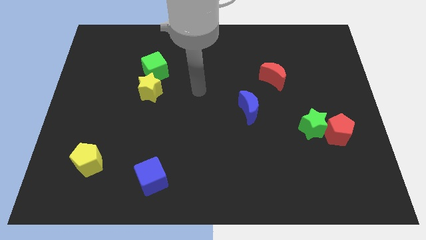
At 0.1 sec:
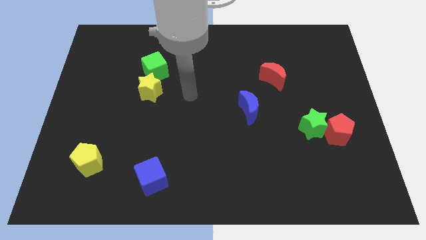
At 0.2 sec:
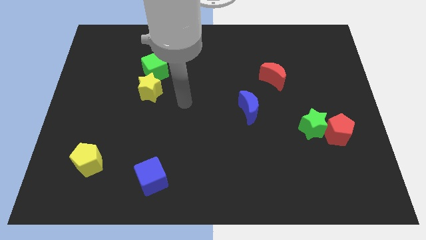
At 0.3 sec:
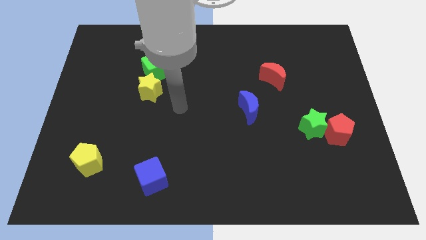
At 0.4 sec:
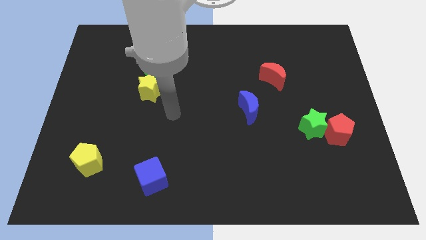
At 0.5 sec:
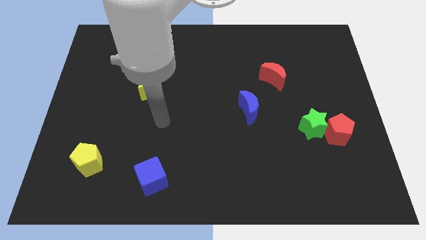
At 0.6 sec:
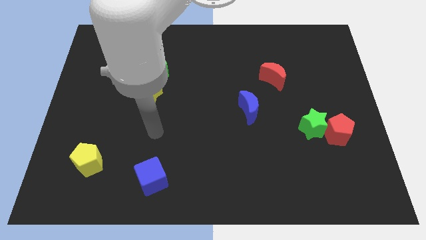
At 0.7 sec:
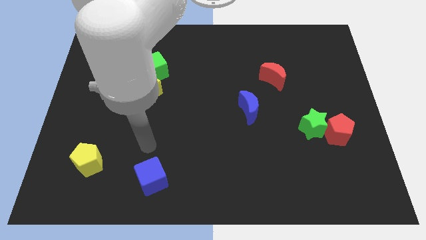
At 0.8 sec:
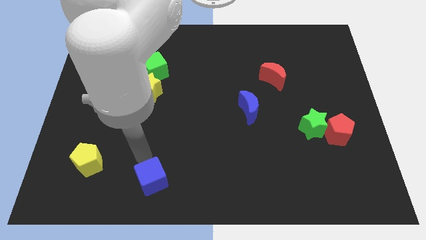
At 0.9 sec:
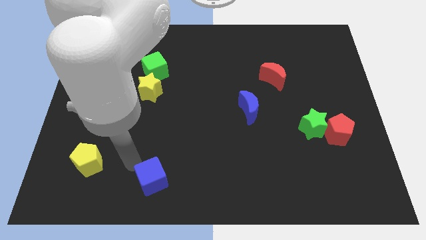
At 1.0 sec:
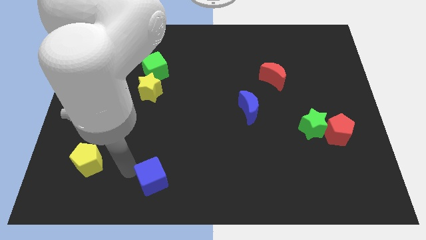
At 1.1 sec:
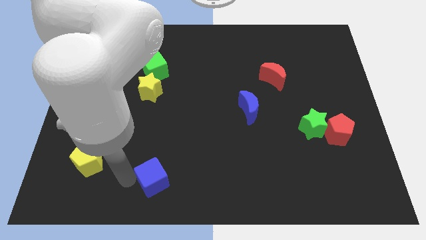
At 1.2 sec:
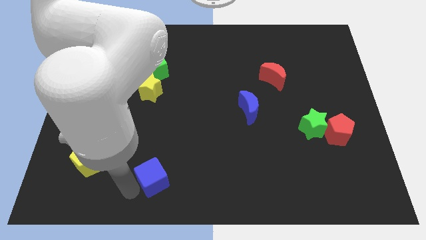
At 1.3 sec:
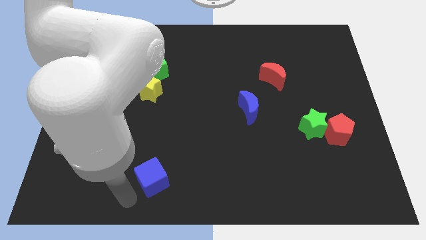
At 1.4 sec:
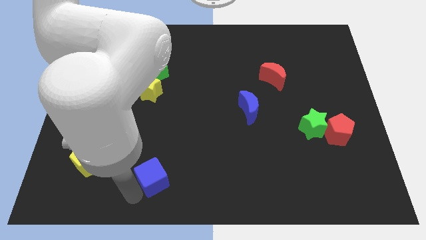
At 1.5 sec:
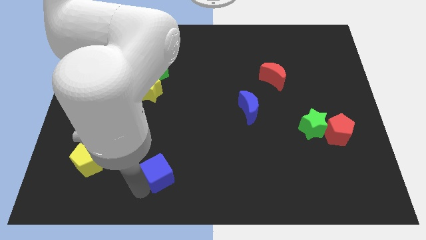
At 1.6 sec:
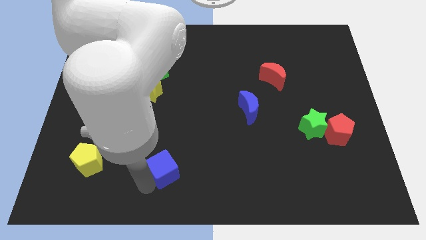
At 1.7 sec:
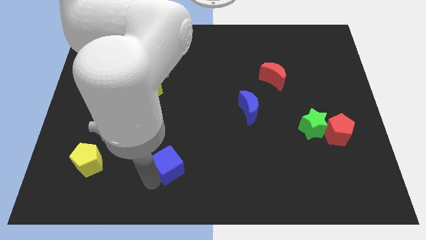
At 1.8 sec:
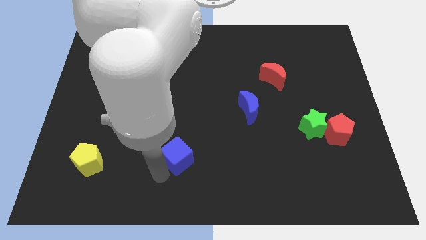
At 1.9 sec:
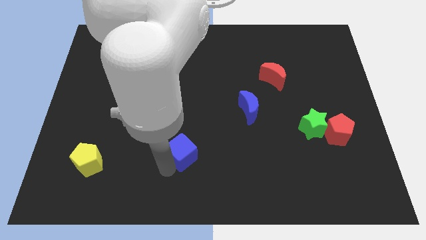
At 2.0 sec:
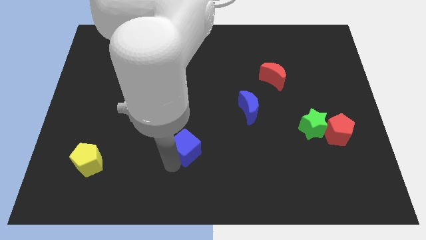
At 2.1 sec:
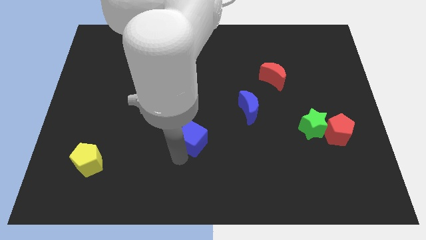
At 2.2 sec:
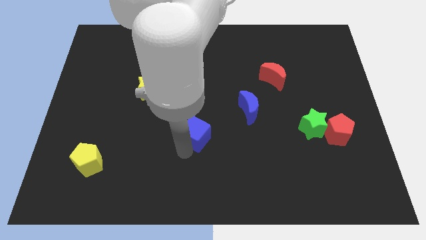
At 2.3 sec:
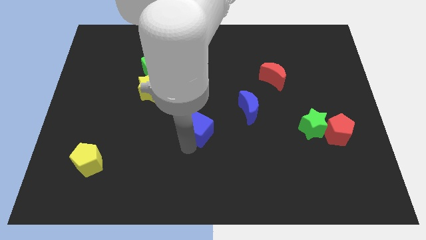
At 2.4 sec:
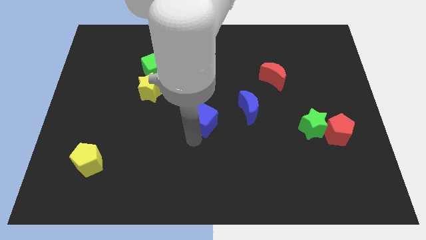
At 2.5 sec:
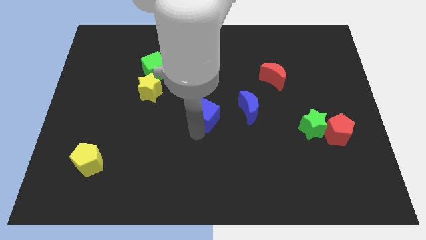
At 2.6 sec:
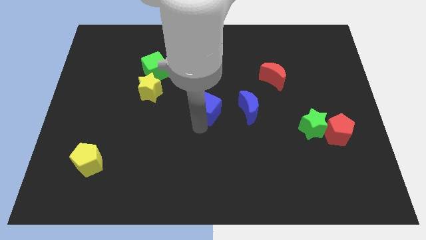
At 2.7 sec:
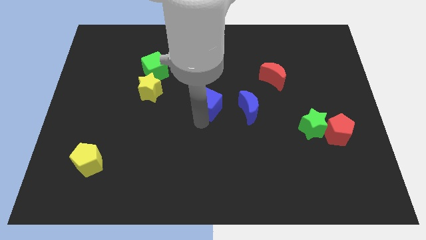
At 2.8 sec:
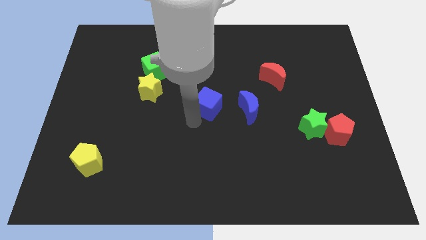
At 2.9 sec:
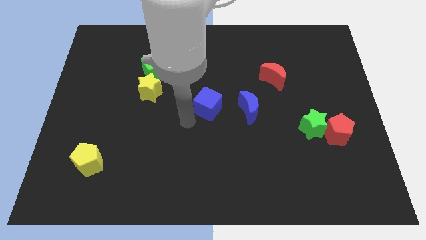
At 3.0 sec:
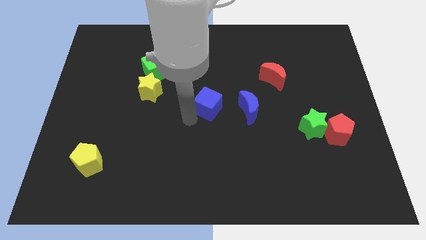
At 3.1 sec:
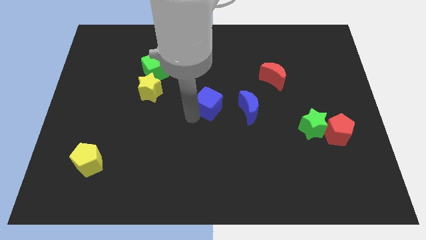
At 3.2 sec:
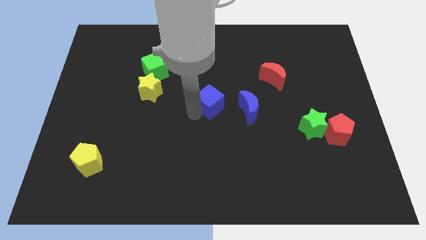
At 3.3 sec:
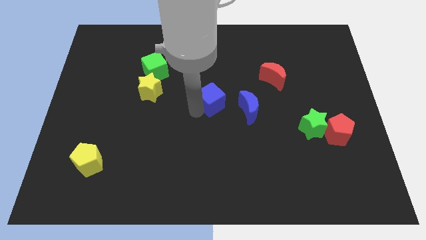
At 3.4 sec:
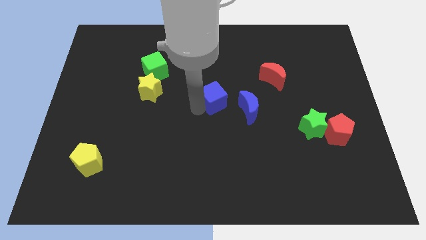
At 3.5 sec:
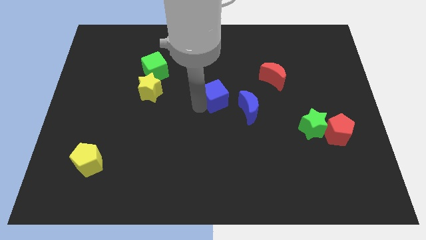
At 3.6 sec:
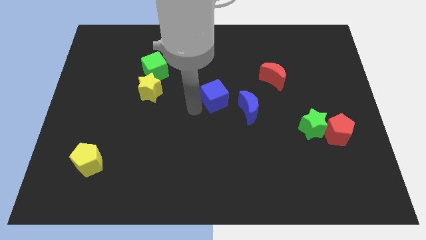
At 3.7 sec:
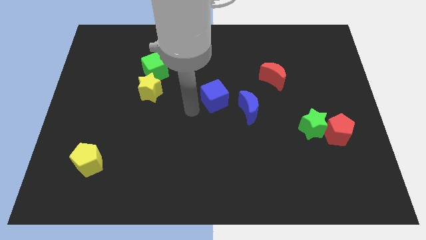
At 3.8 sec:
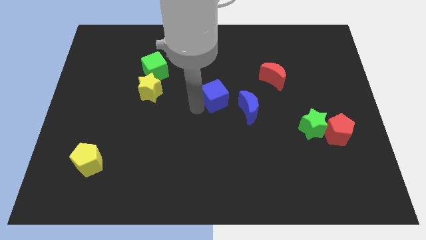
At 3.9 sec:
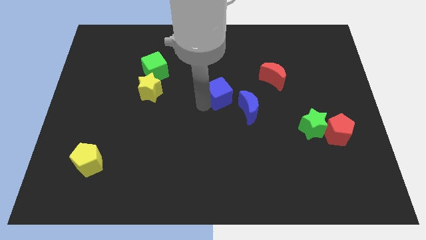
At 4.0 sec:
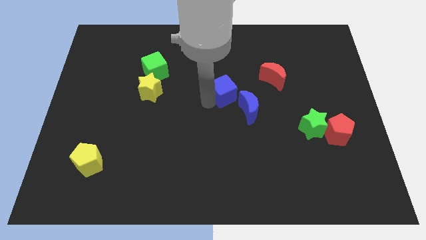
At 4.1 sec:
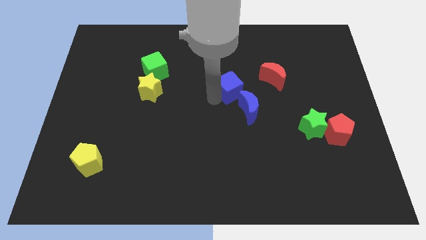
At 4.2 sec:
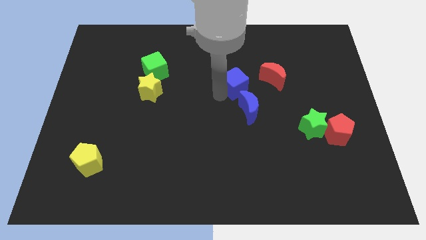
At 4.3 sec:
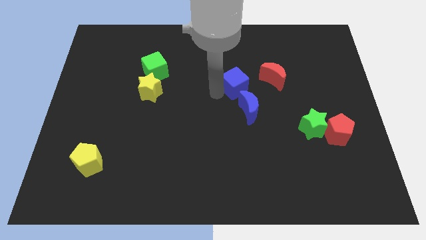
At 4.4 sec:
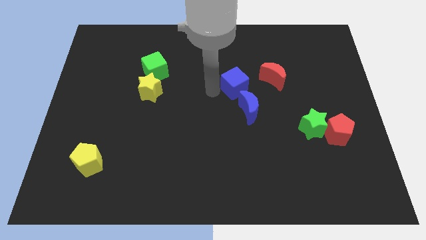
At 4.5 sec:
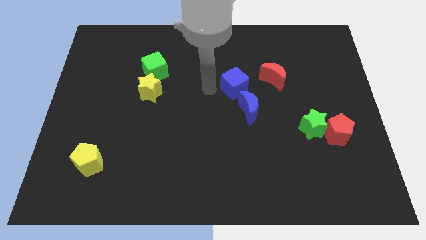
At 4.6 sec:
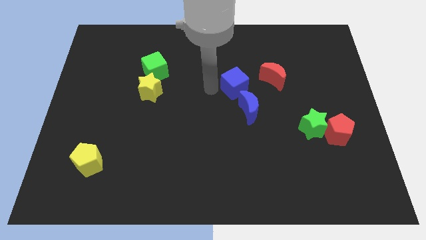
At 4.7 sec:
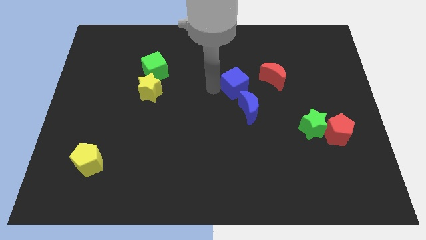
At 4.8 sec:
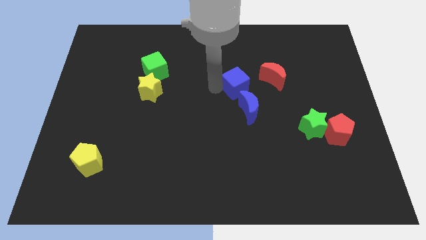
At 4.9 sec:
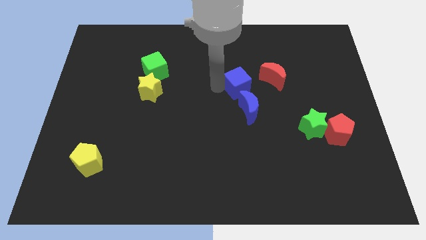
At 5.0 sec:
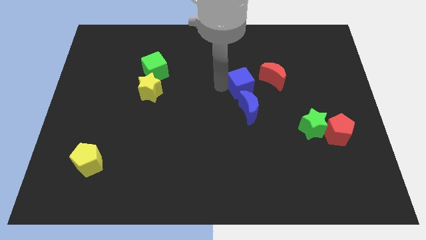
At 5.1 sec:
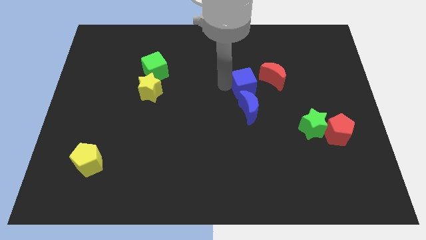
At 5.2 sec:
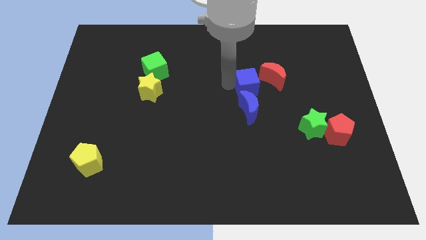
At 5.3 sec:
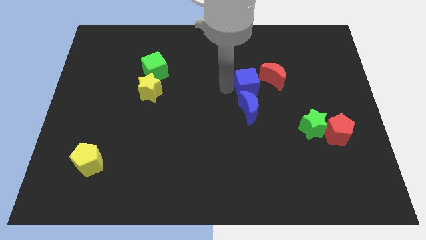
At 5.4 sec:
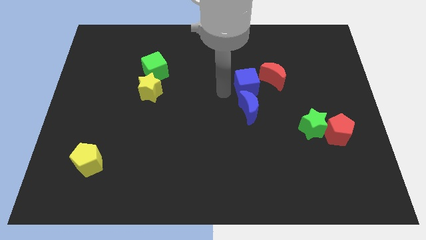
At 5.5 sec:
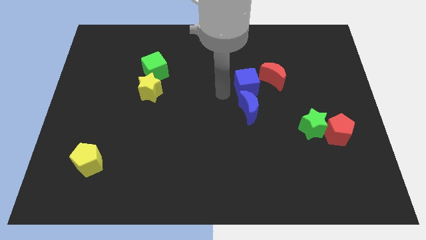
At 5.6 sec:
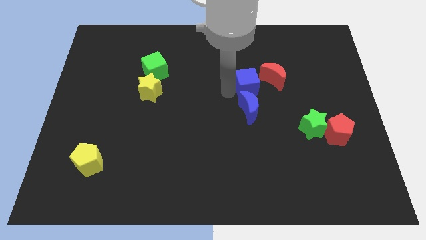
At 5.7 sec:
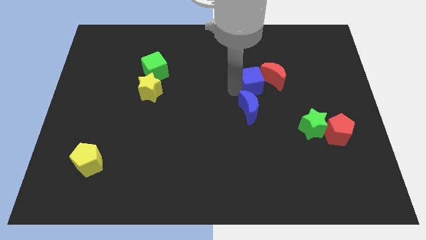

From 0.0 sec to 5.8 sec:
move the blue cube close to the red moon

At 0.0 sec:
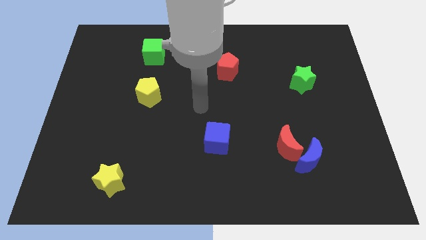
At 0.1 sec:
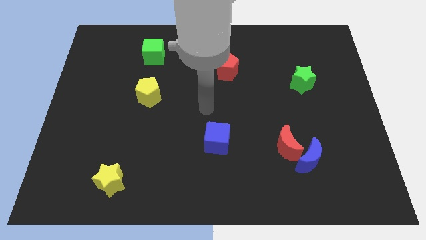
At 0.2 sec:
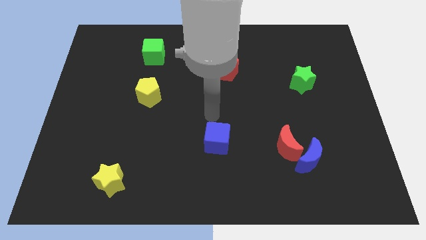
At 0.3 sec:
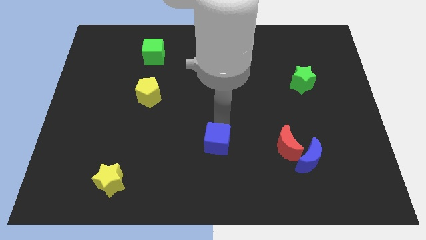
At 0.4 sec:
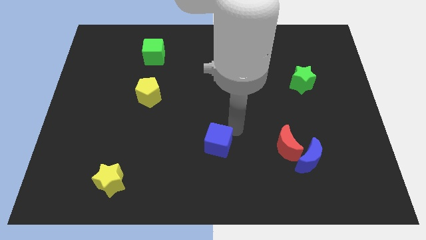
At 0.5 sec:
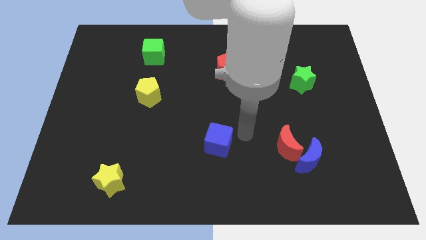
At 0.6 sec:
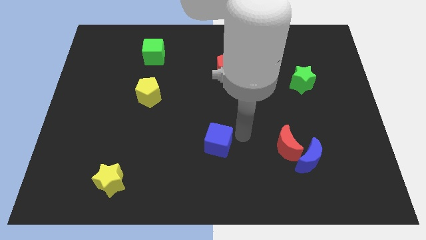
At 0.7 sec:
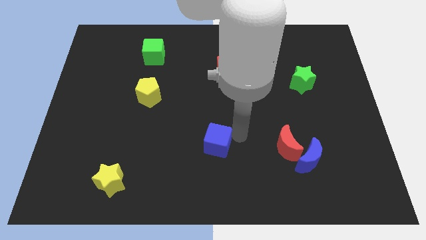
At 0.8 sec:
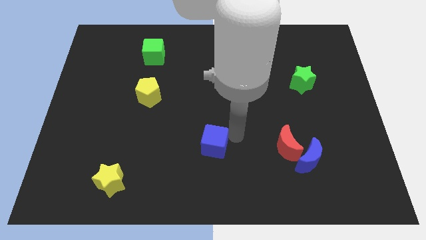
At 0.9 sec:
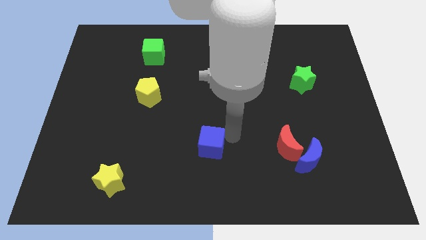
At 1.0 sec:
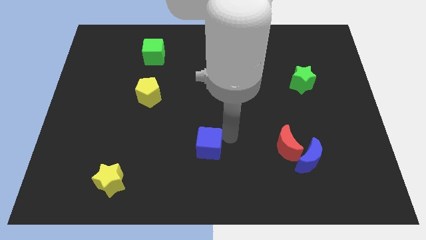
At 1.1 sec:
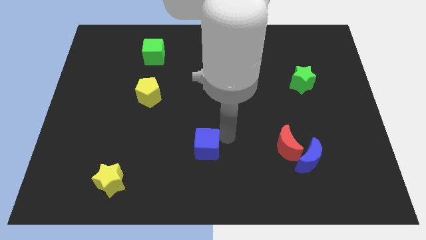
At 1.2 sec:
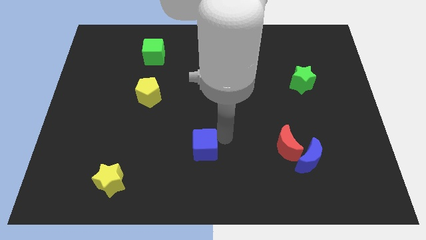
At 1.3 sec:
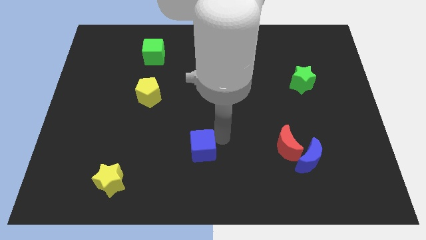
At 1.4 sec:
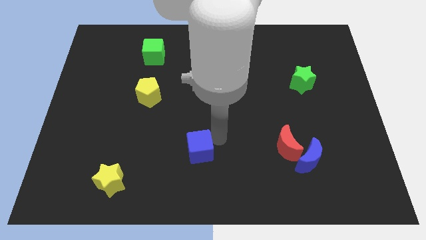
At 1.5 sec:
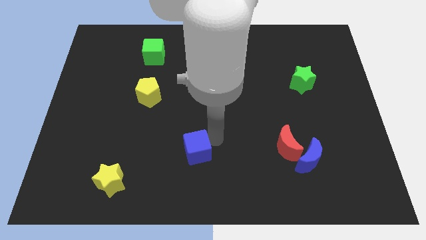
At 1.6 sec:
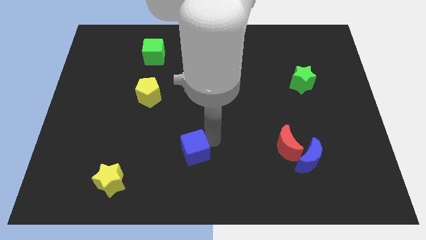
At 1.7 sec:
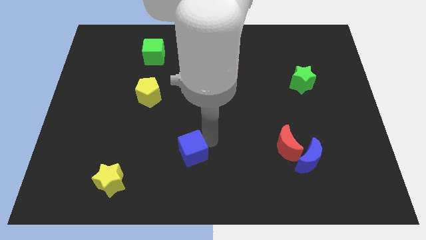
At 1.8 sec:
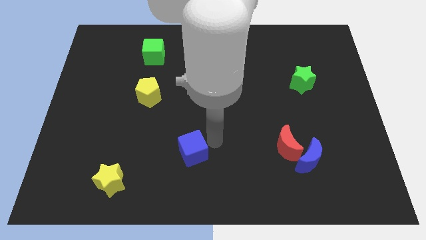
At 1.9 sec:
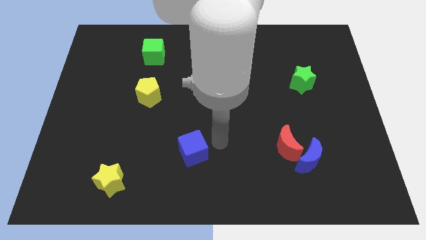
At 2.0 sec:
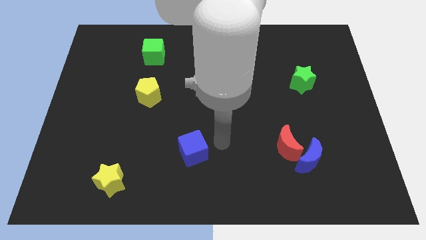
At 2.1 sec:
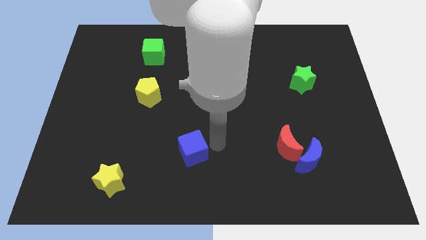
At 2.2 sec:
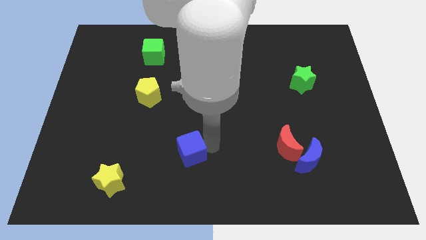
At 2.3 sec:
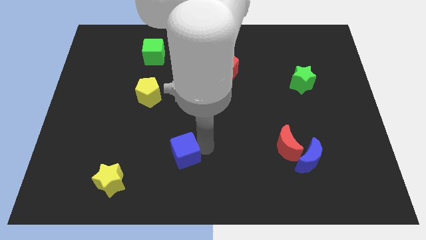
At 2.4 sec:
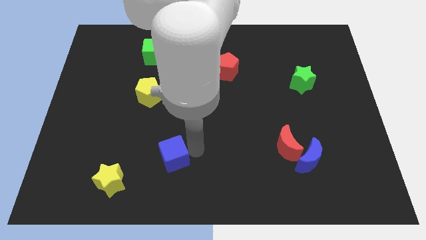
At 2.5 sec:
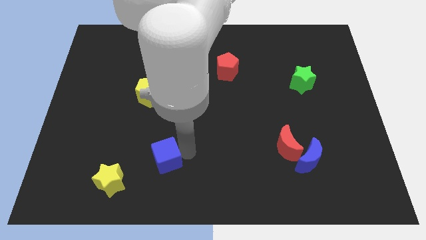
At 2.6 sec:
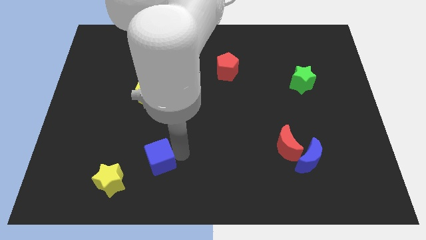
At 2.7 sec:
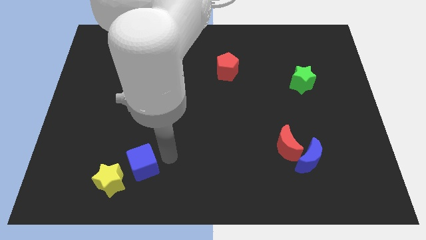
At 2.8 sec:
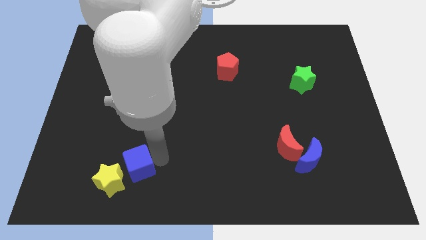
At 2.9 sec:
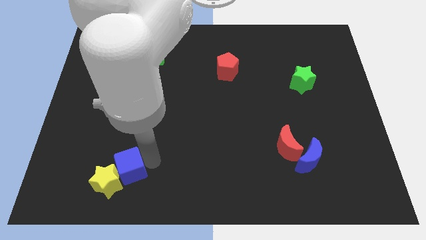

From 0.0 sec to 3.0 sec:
slide the blue cube next to the yellow star
